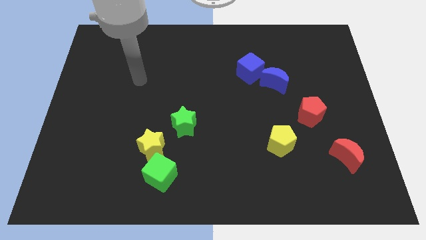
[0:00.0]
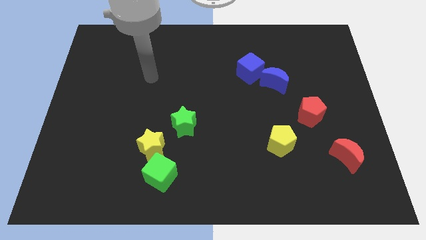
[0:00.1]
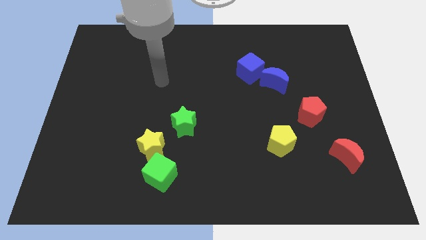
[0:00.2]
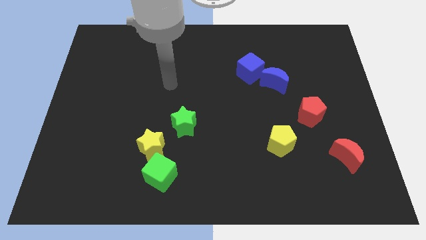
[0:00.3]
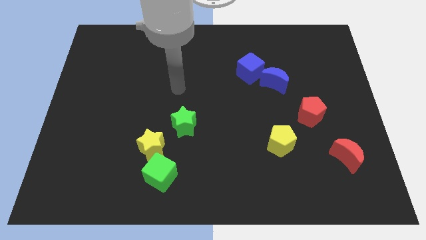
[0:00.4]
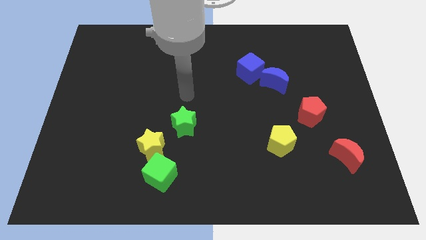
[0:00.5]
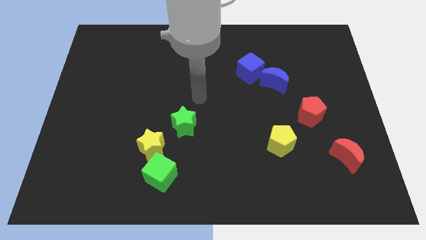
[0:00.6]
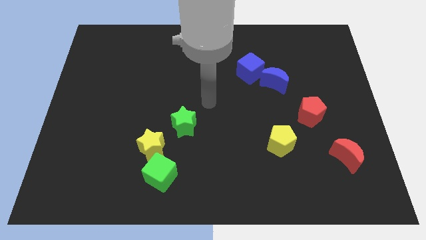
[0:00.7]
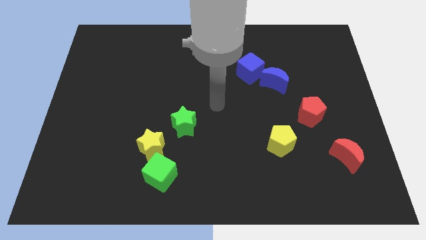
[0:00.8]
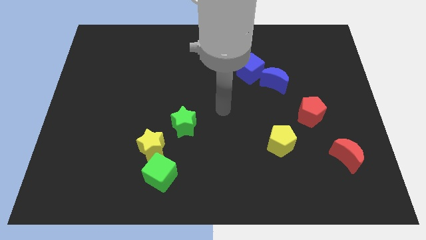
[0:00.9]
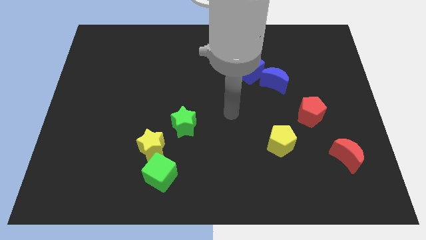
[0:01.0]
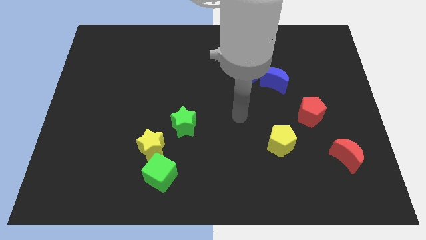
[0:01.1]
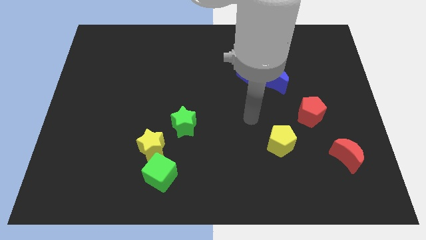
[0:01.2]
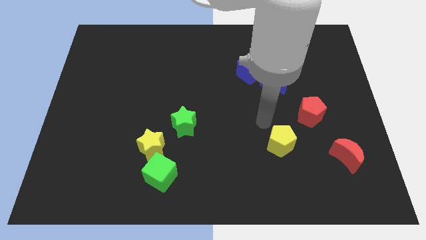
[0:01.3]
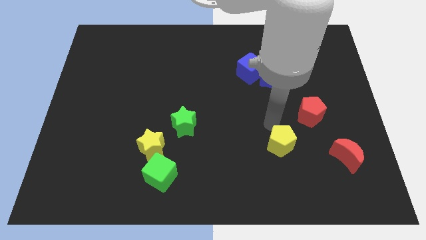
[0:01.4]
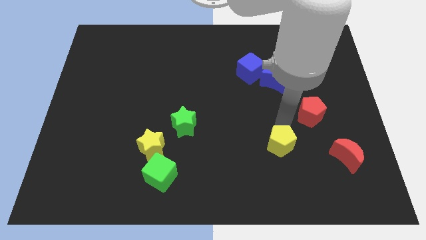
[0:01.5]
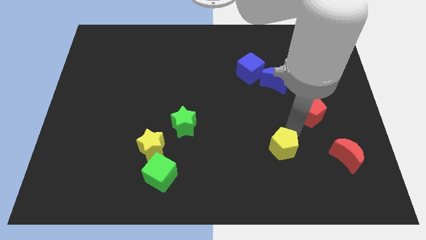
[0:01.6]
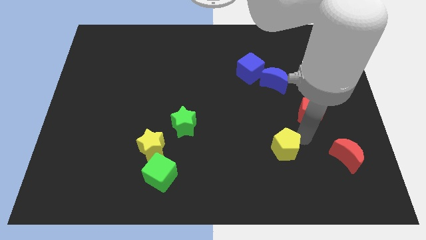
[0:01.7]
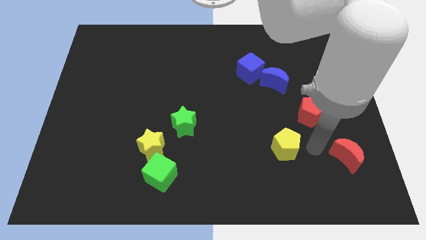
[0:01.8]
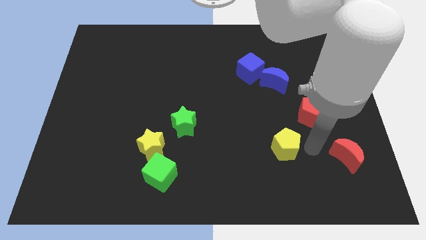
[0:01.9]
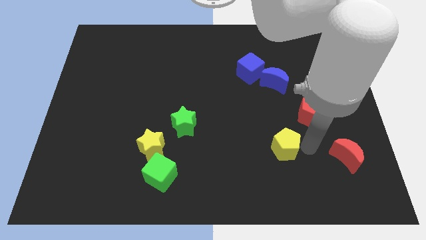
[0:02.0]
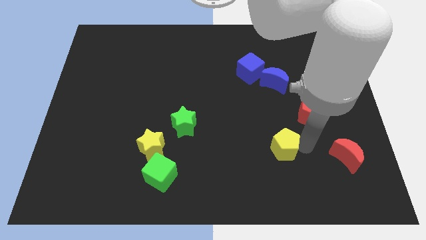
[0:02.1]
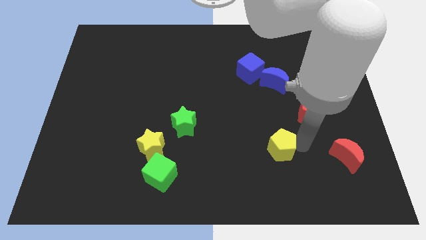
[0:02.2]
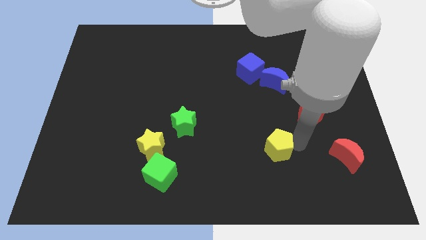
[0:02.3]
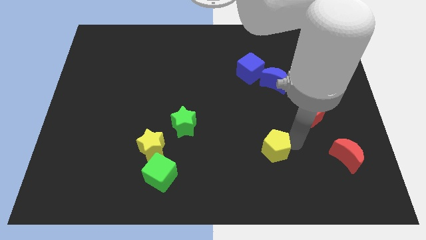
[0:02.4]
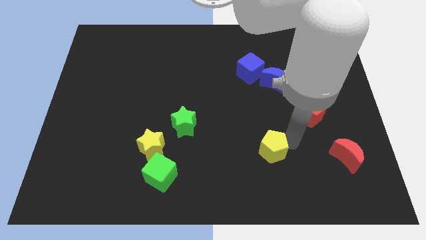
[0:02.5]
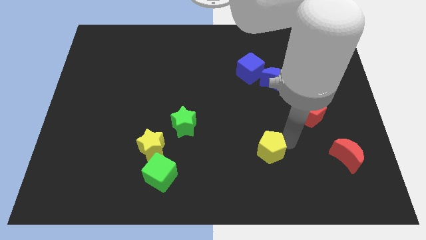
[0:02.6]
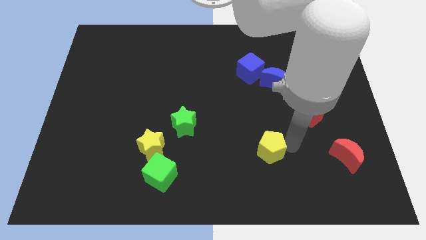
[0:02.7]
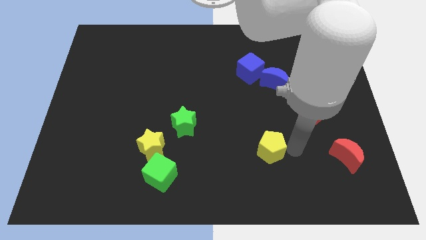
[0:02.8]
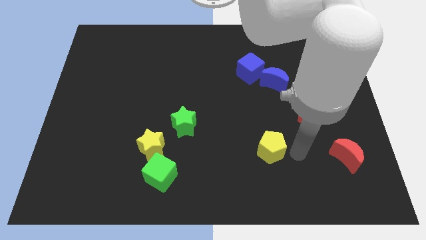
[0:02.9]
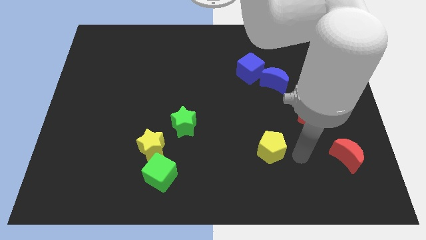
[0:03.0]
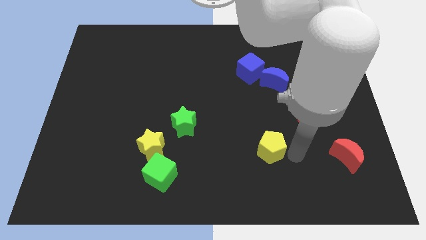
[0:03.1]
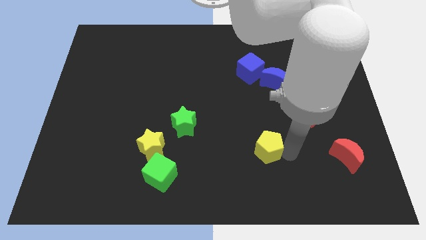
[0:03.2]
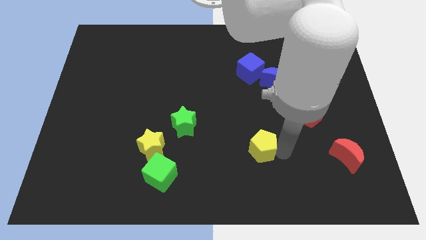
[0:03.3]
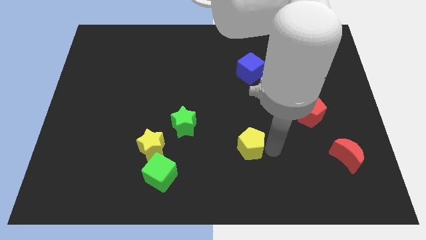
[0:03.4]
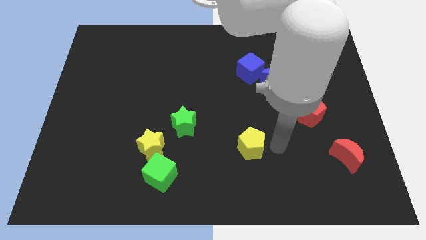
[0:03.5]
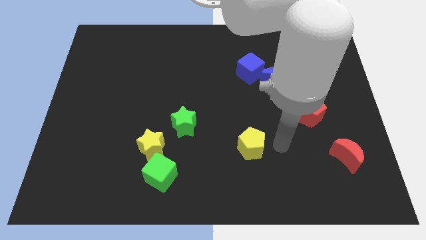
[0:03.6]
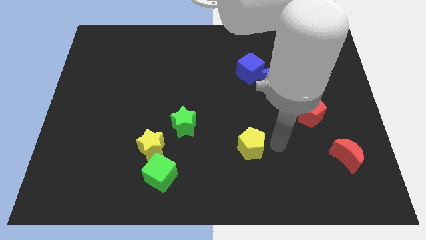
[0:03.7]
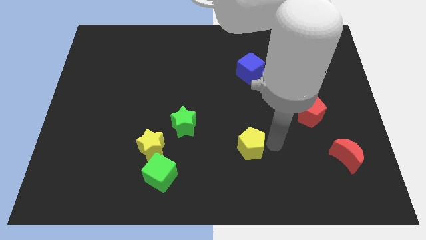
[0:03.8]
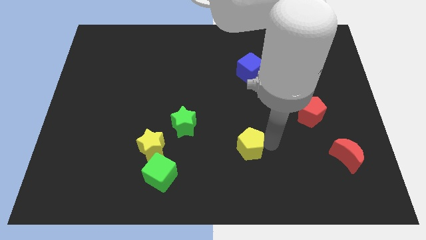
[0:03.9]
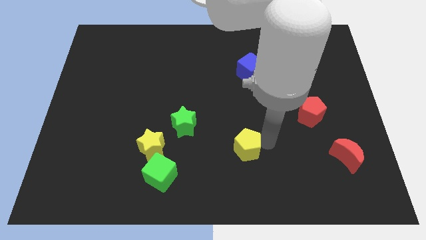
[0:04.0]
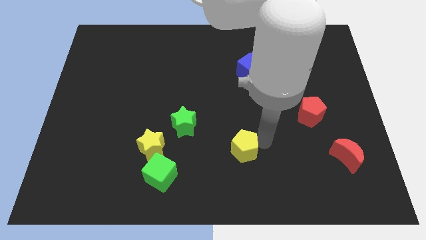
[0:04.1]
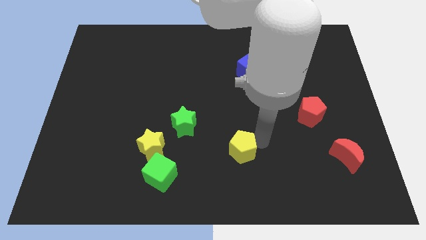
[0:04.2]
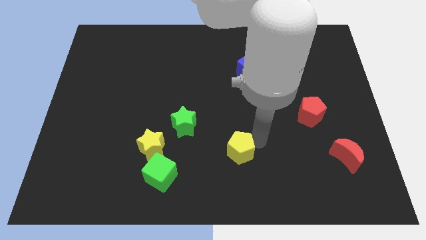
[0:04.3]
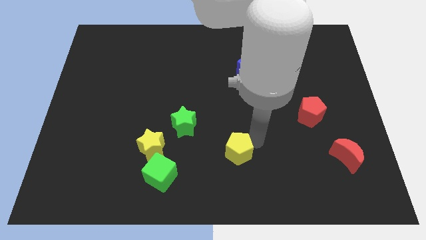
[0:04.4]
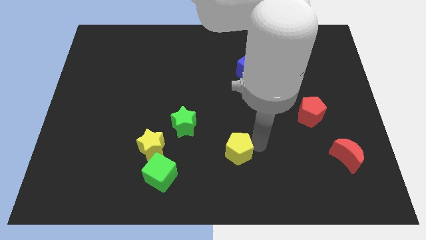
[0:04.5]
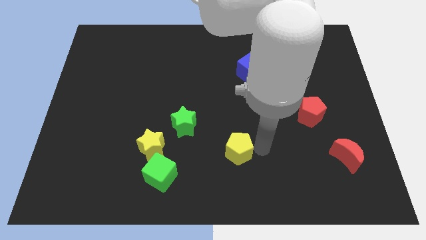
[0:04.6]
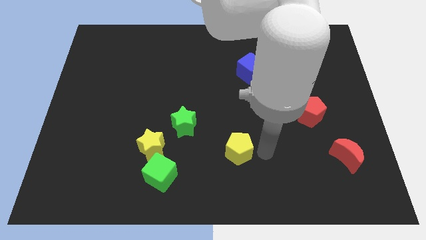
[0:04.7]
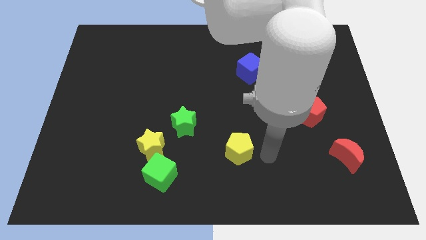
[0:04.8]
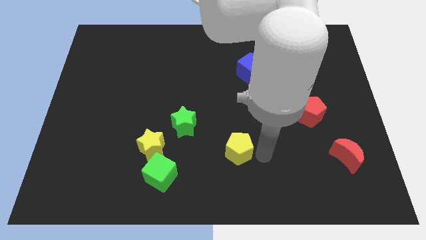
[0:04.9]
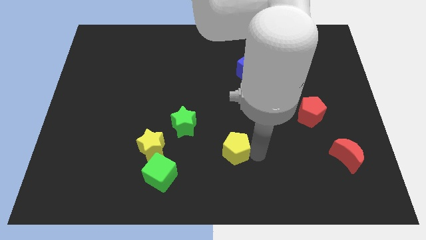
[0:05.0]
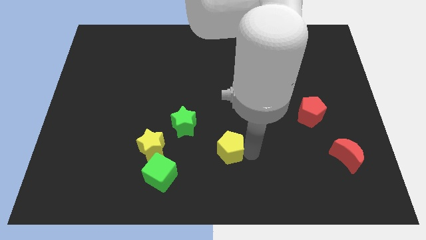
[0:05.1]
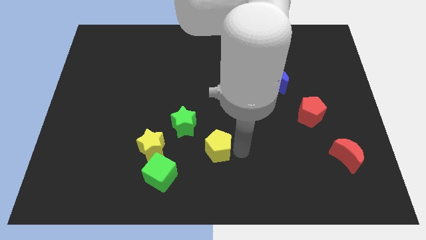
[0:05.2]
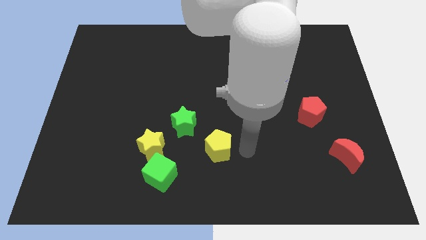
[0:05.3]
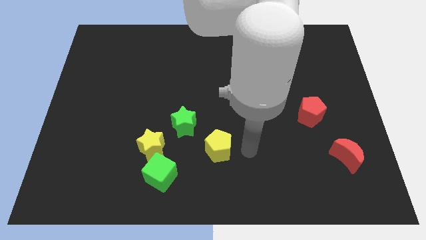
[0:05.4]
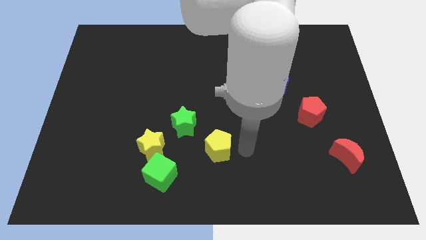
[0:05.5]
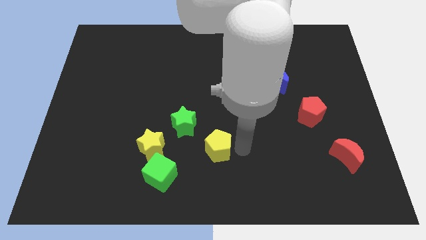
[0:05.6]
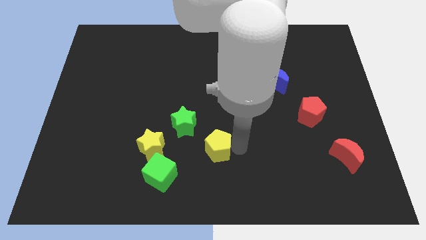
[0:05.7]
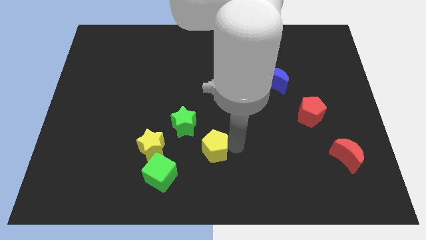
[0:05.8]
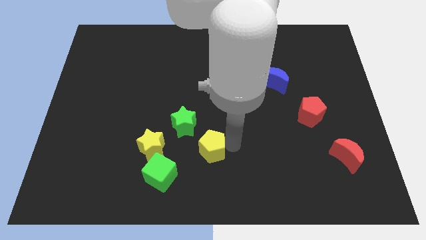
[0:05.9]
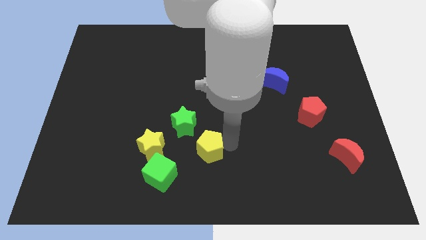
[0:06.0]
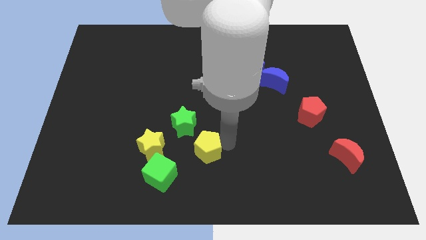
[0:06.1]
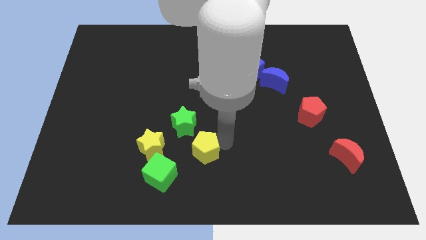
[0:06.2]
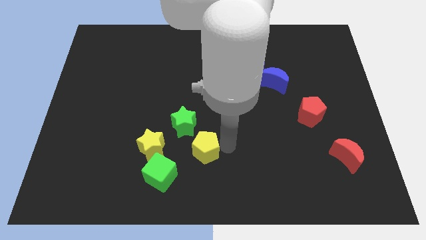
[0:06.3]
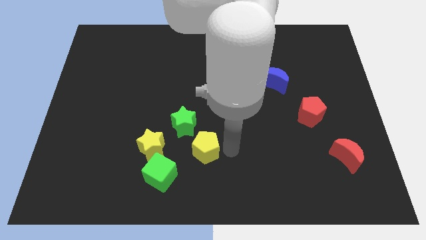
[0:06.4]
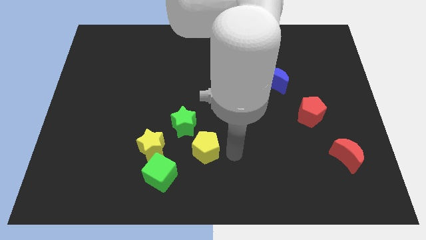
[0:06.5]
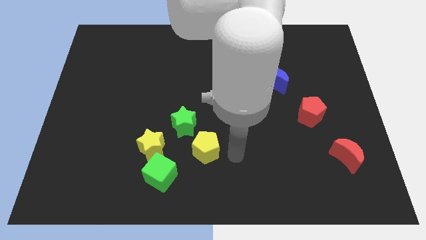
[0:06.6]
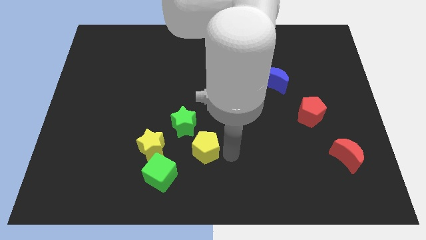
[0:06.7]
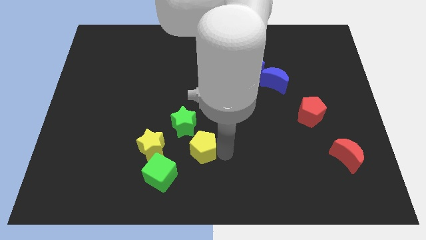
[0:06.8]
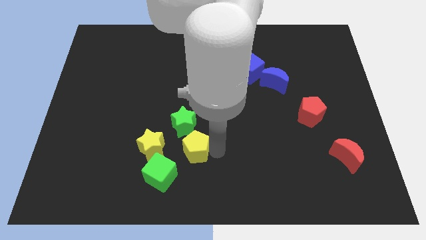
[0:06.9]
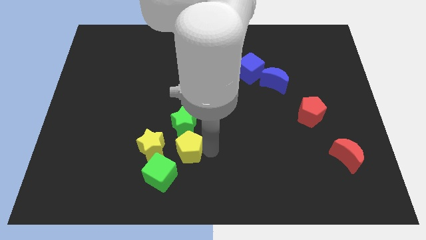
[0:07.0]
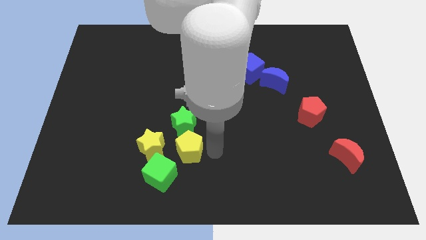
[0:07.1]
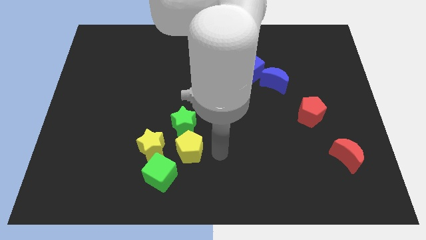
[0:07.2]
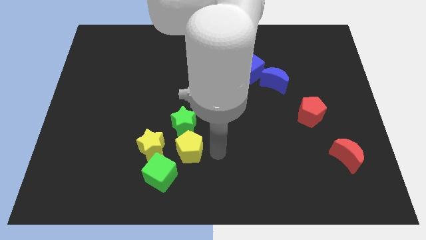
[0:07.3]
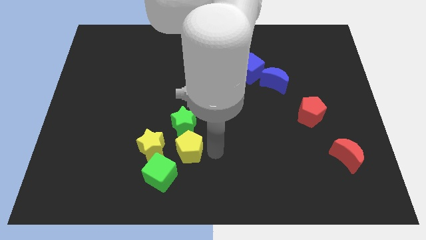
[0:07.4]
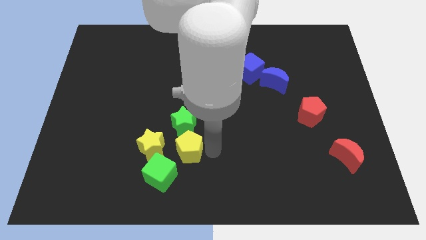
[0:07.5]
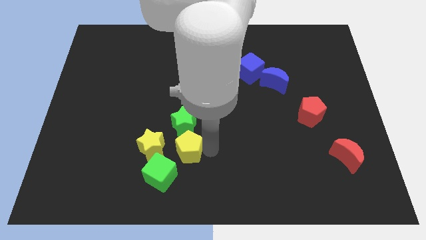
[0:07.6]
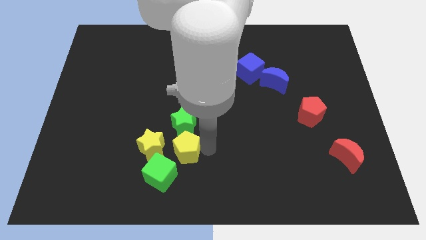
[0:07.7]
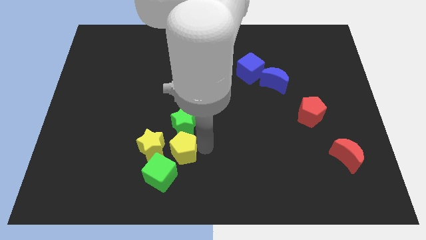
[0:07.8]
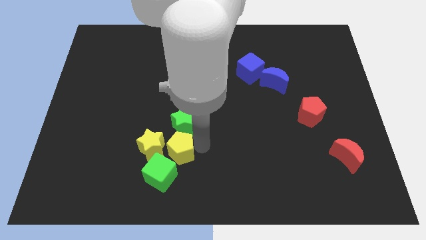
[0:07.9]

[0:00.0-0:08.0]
move the yellow pentagon to the yellow star
